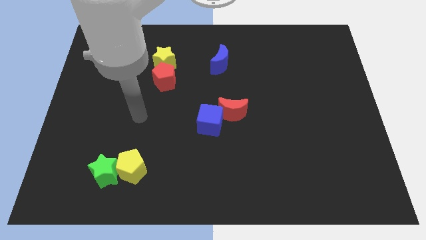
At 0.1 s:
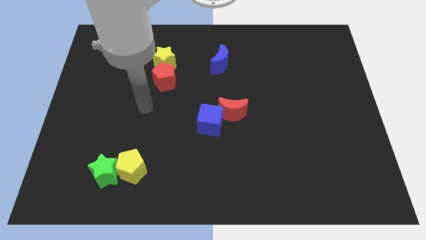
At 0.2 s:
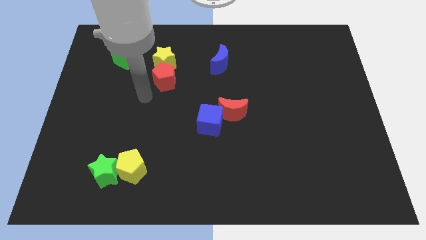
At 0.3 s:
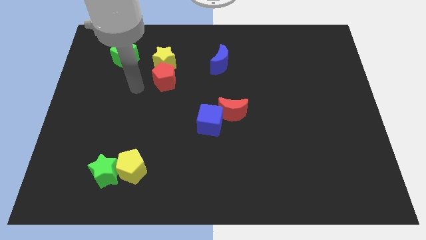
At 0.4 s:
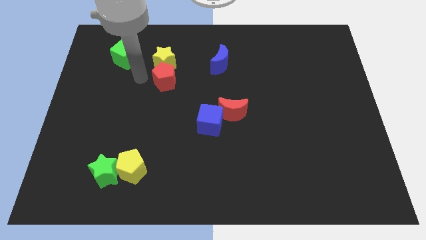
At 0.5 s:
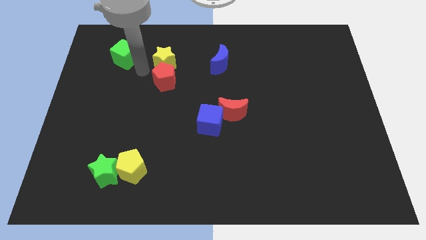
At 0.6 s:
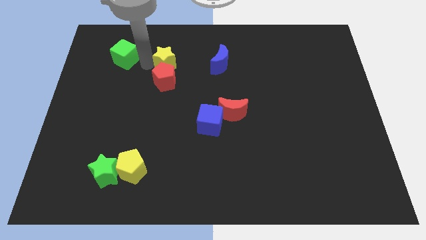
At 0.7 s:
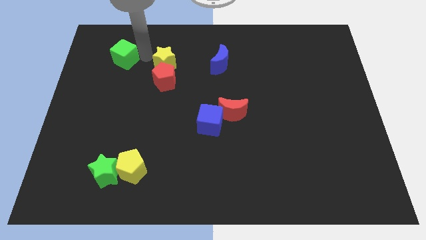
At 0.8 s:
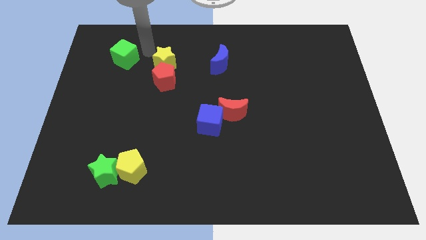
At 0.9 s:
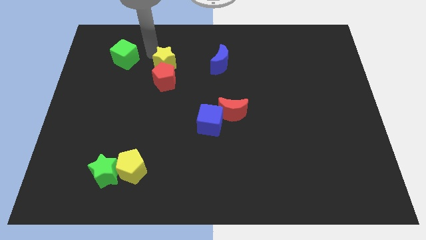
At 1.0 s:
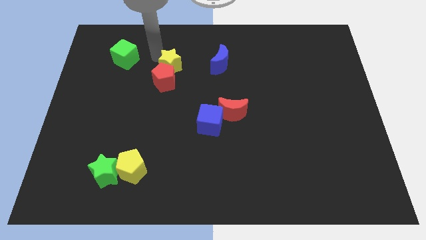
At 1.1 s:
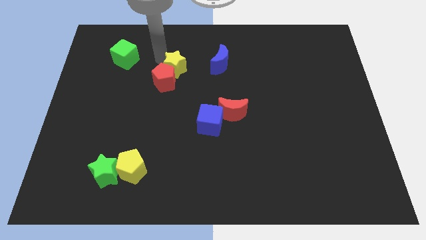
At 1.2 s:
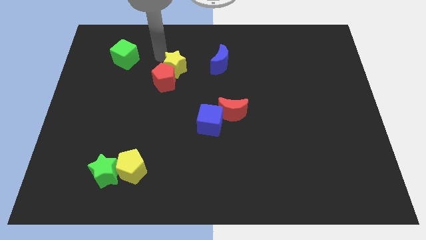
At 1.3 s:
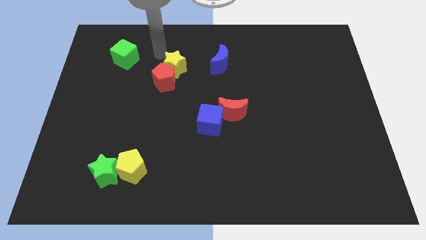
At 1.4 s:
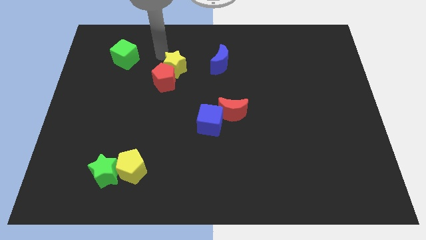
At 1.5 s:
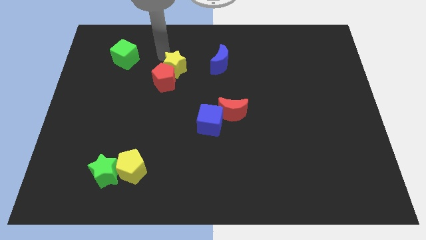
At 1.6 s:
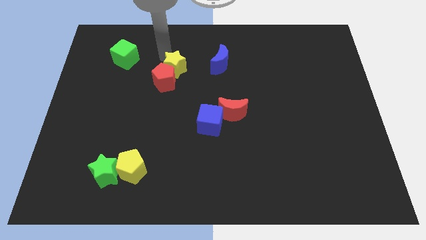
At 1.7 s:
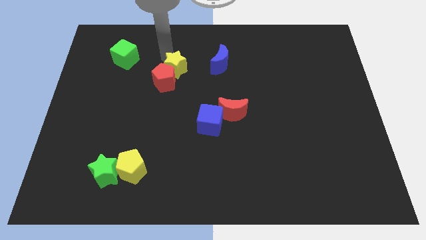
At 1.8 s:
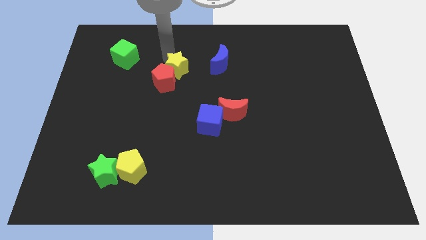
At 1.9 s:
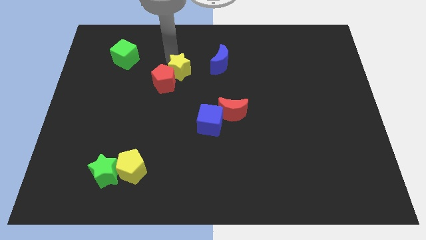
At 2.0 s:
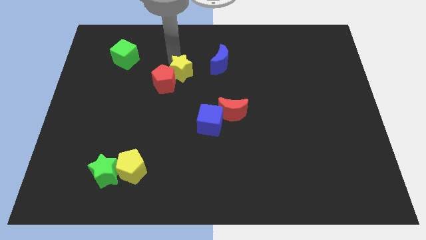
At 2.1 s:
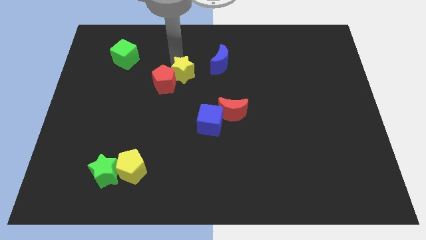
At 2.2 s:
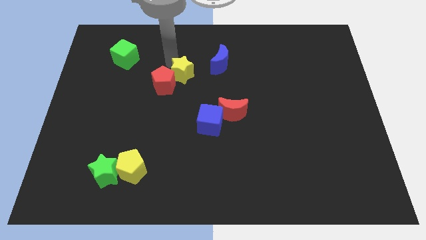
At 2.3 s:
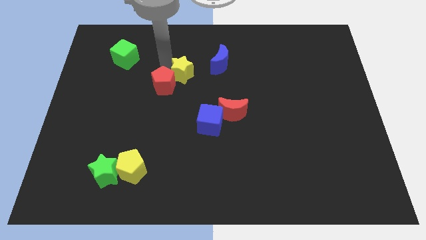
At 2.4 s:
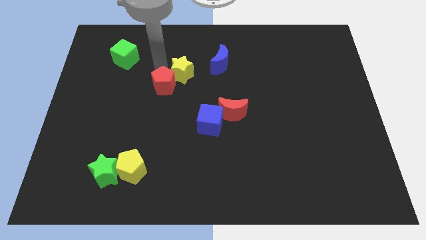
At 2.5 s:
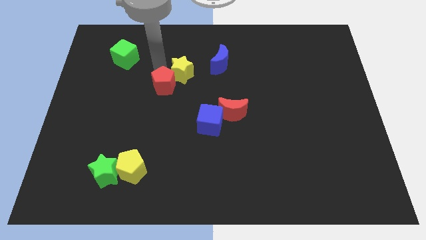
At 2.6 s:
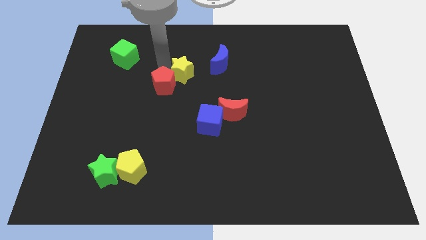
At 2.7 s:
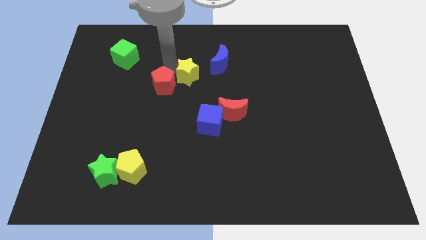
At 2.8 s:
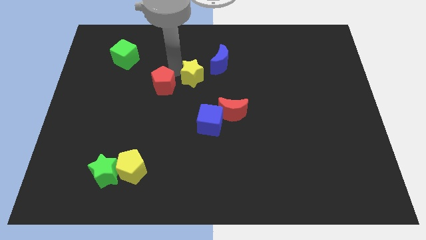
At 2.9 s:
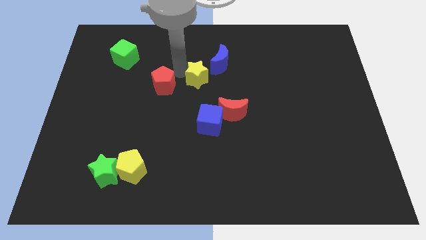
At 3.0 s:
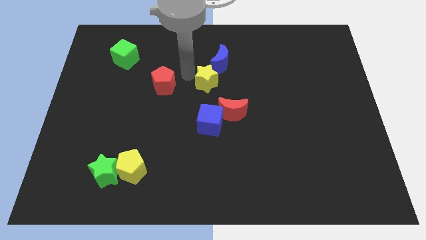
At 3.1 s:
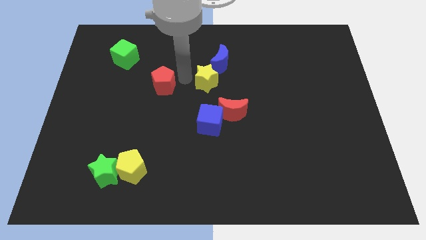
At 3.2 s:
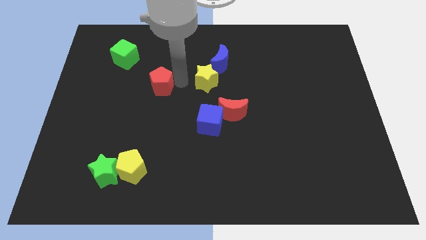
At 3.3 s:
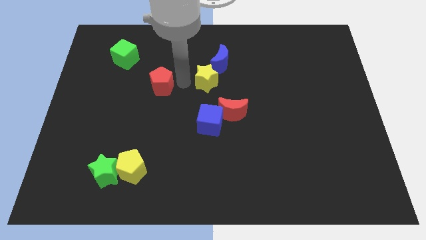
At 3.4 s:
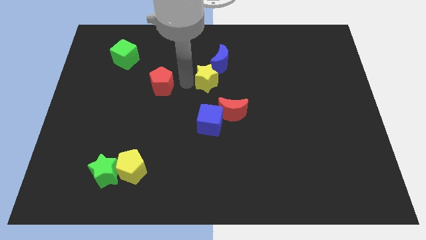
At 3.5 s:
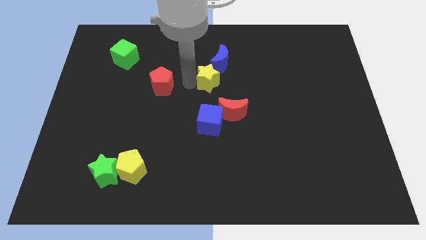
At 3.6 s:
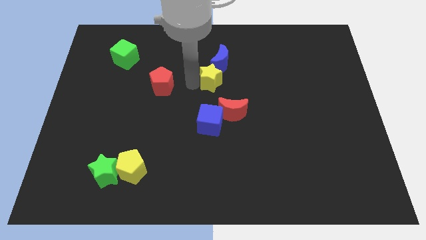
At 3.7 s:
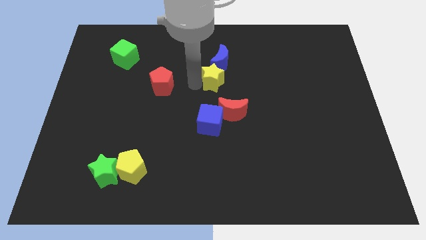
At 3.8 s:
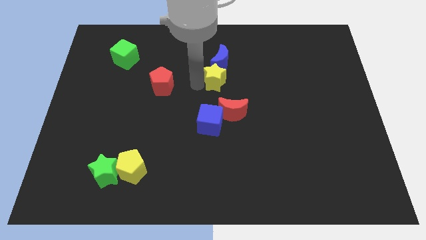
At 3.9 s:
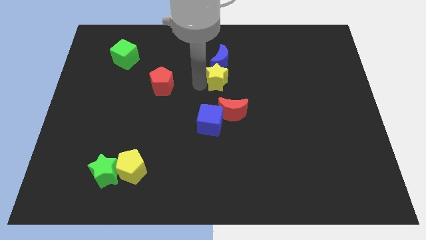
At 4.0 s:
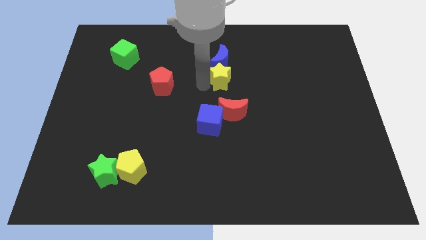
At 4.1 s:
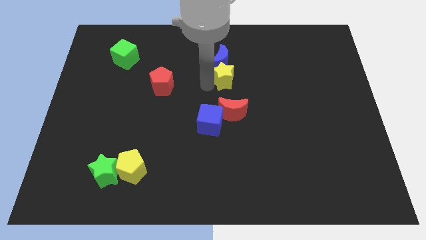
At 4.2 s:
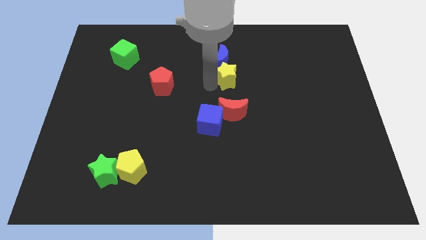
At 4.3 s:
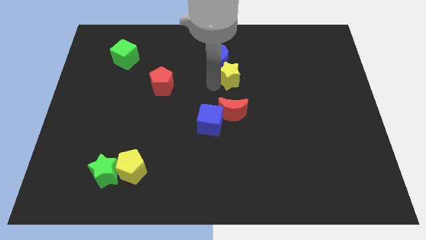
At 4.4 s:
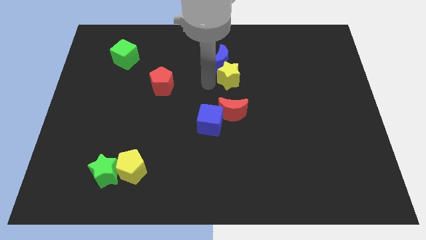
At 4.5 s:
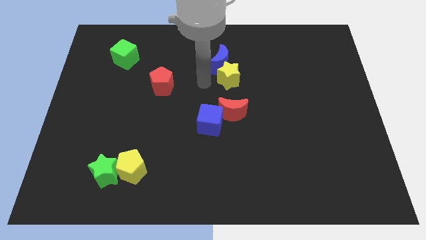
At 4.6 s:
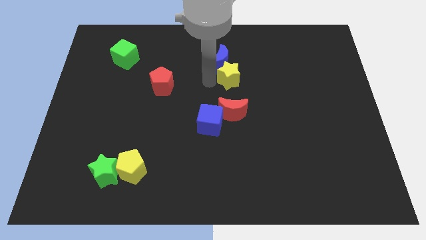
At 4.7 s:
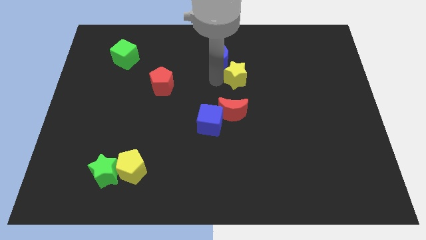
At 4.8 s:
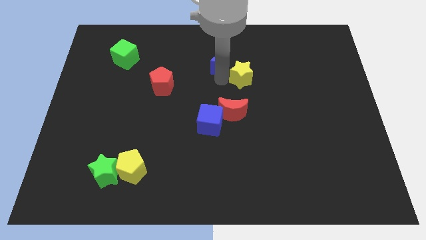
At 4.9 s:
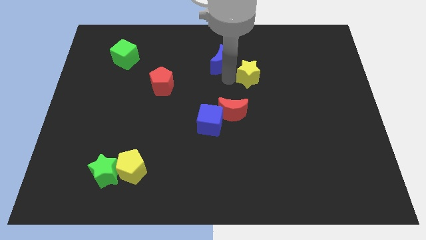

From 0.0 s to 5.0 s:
move the yellow star right

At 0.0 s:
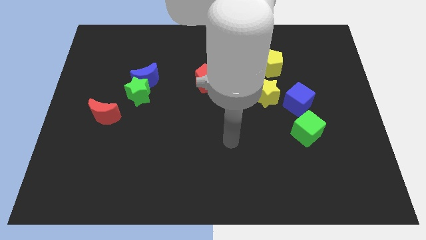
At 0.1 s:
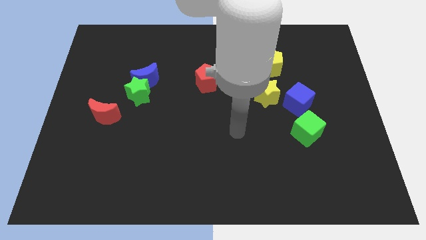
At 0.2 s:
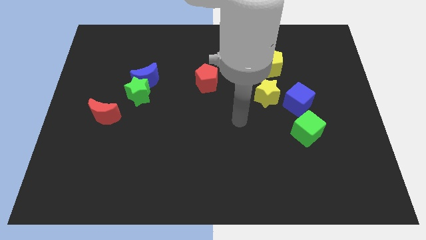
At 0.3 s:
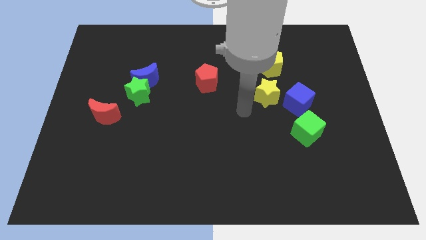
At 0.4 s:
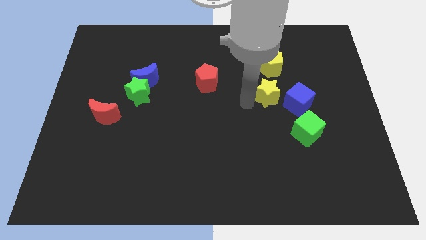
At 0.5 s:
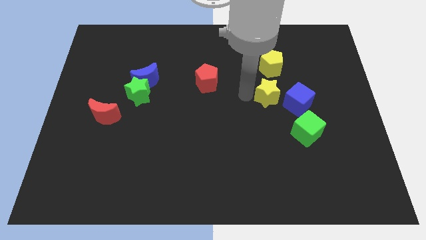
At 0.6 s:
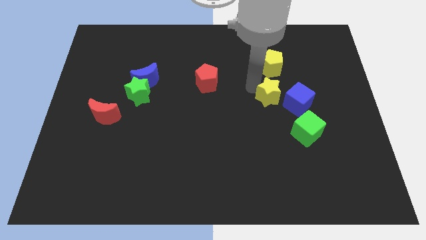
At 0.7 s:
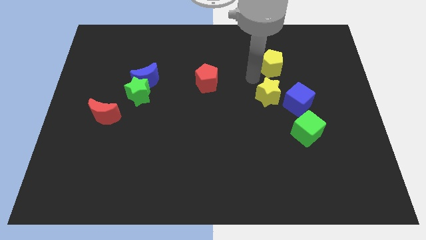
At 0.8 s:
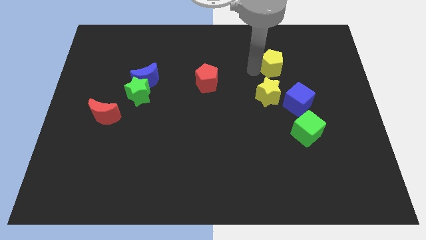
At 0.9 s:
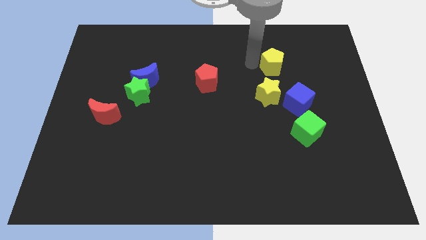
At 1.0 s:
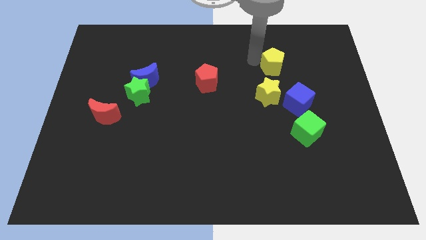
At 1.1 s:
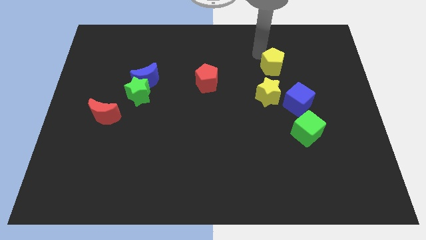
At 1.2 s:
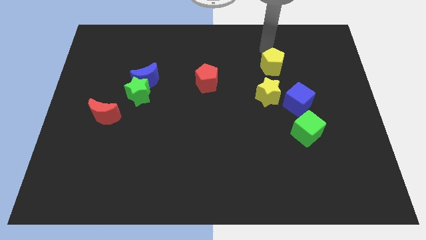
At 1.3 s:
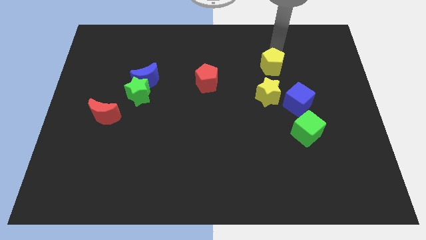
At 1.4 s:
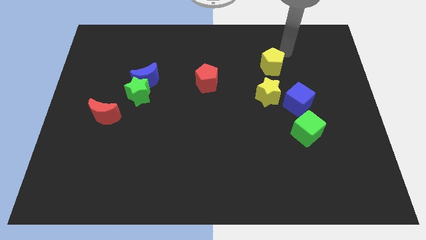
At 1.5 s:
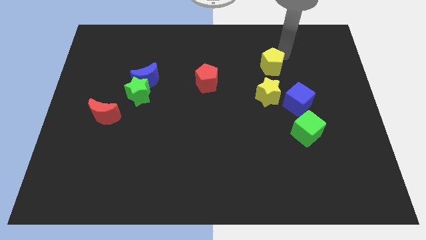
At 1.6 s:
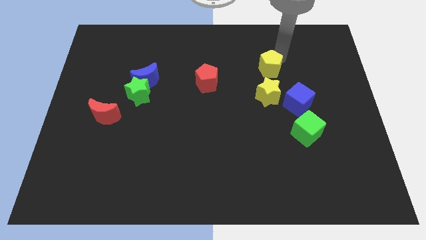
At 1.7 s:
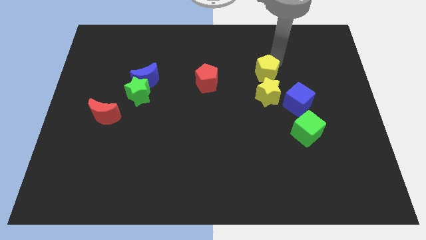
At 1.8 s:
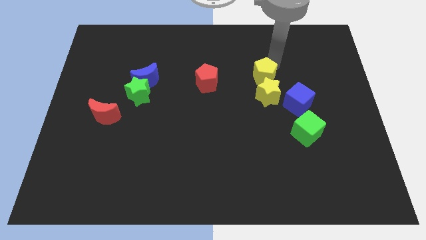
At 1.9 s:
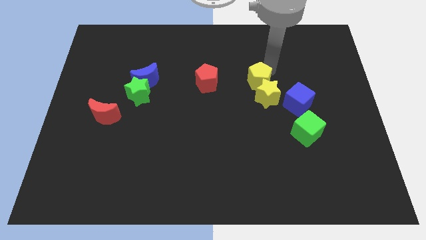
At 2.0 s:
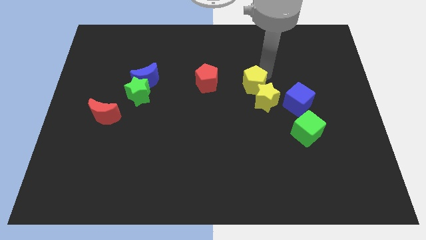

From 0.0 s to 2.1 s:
slide the yellow pentagon a bit downwards and then left

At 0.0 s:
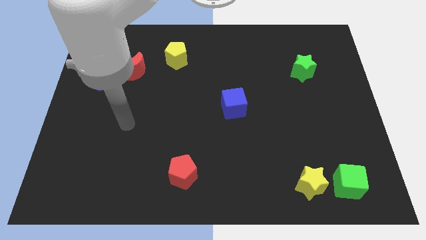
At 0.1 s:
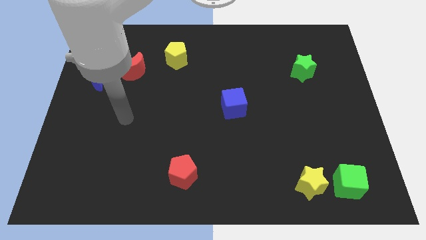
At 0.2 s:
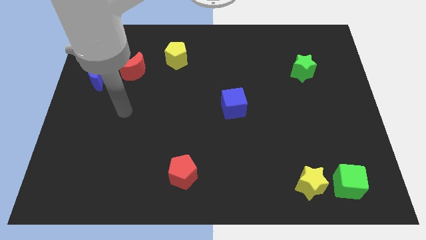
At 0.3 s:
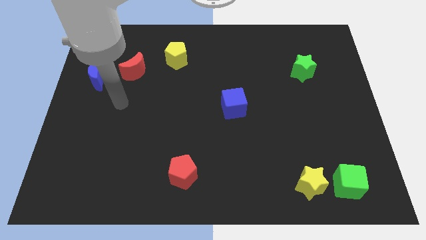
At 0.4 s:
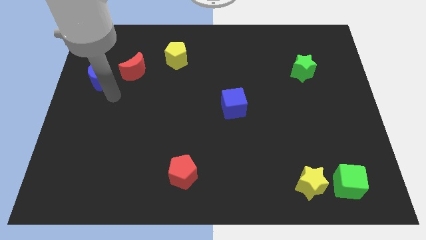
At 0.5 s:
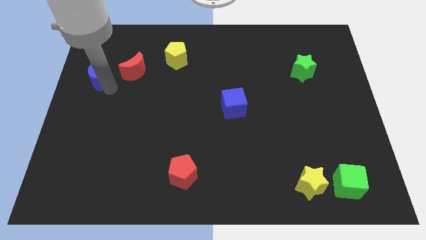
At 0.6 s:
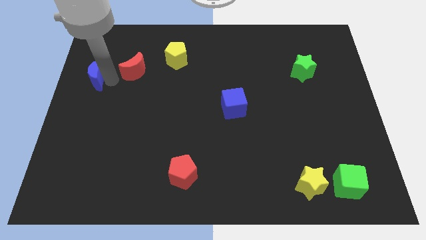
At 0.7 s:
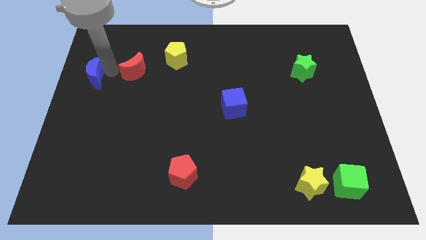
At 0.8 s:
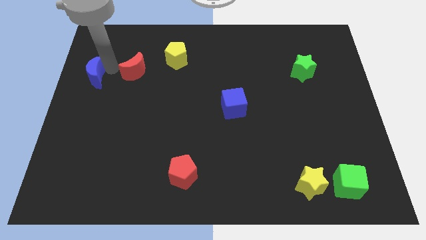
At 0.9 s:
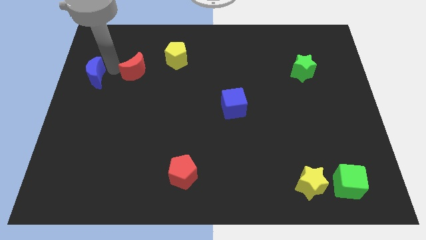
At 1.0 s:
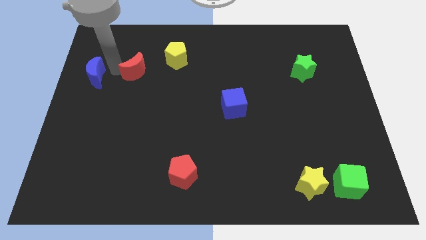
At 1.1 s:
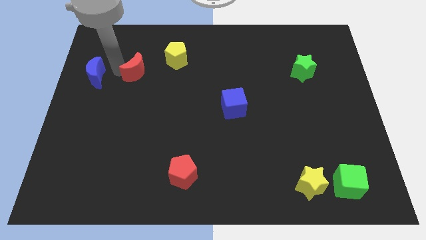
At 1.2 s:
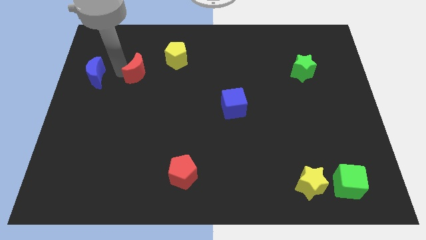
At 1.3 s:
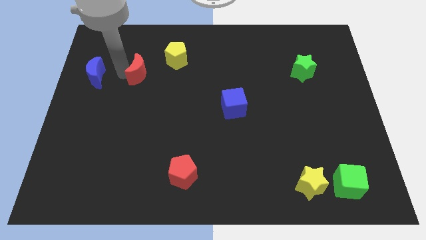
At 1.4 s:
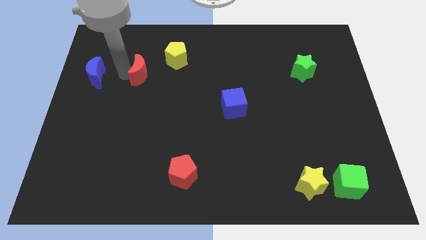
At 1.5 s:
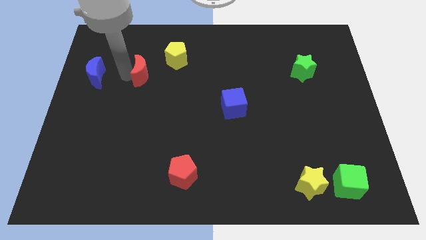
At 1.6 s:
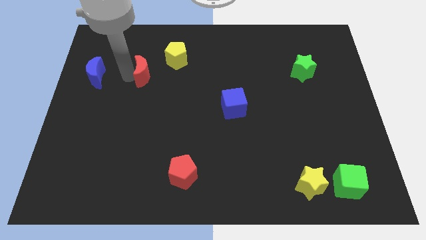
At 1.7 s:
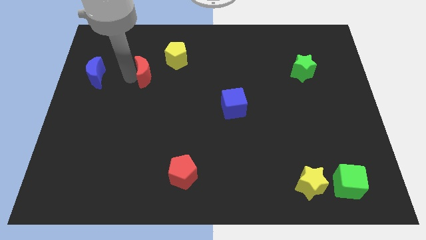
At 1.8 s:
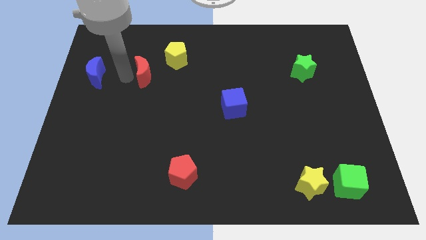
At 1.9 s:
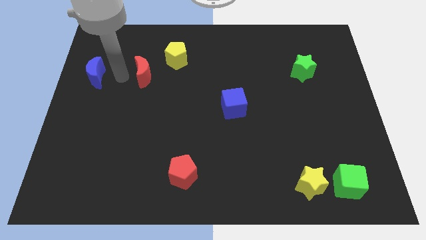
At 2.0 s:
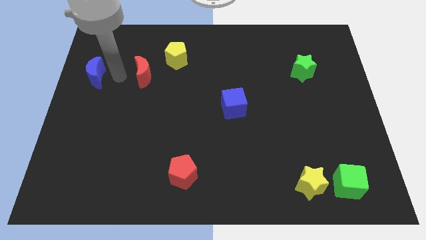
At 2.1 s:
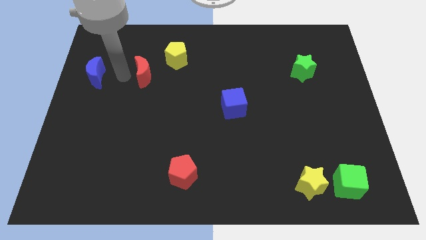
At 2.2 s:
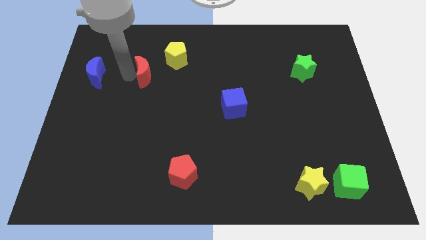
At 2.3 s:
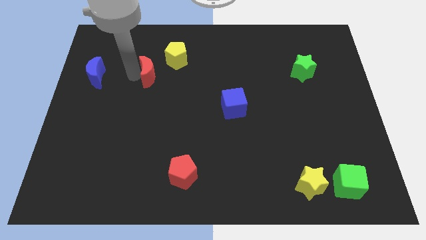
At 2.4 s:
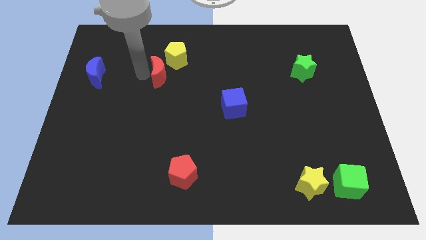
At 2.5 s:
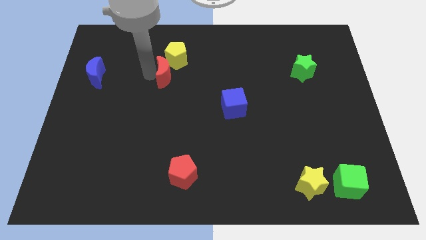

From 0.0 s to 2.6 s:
slightly move the red moon to the right
